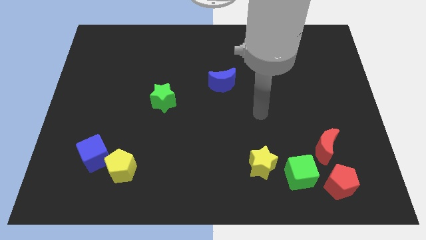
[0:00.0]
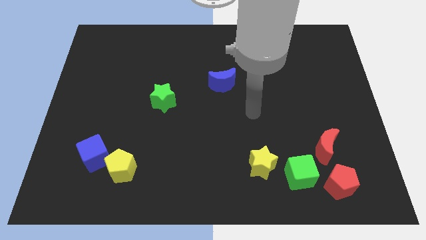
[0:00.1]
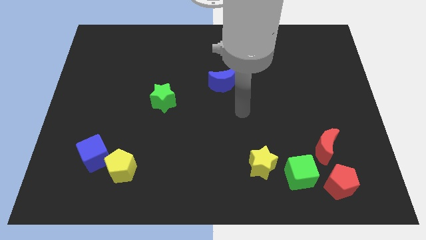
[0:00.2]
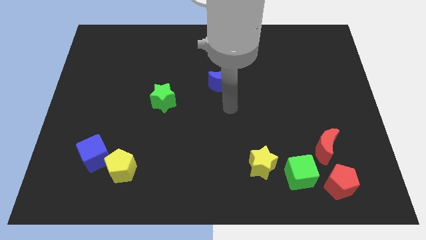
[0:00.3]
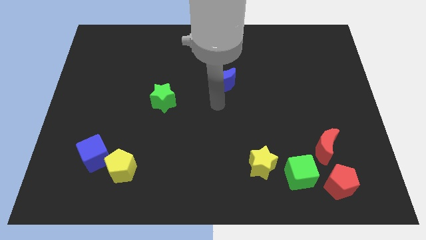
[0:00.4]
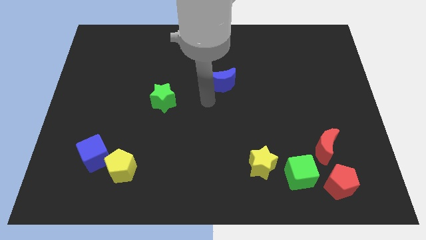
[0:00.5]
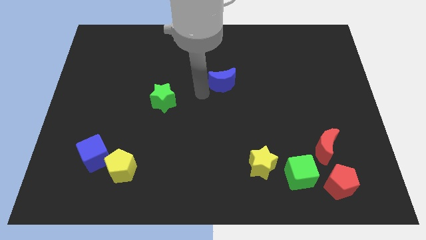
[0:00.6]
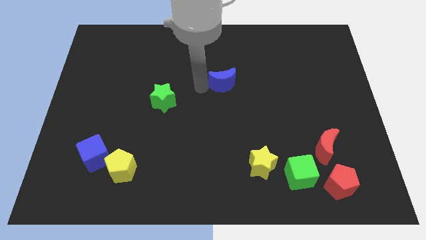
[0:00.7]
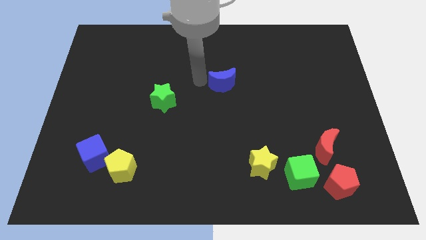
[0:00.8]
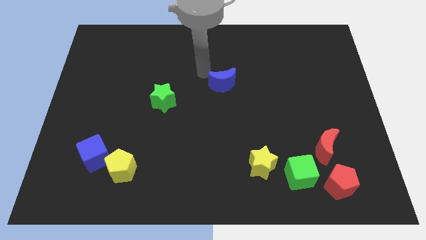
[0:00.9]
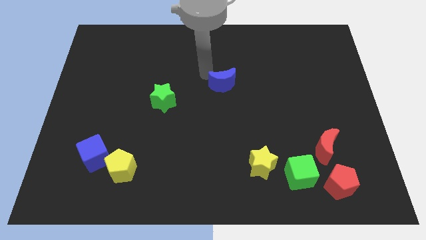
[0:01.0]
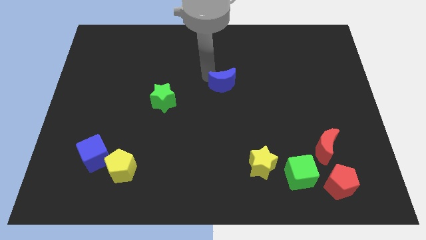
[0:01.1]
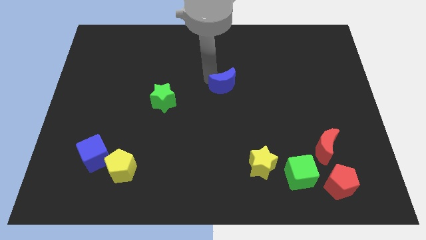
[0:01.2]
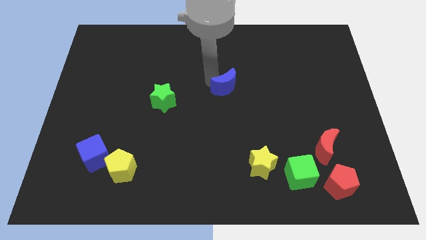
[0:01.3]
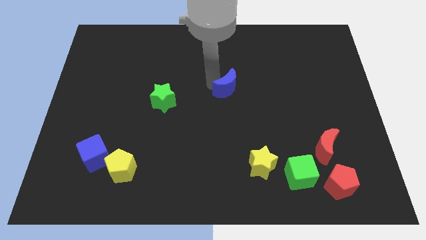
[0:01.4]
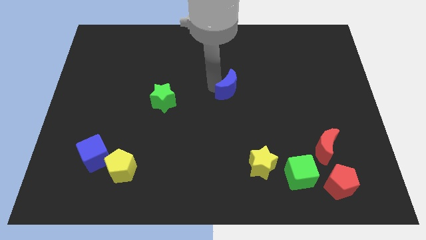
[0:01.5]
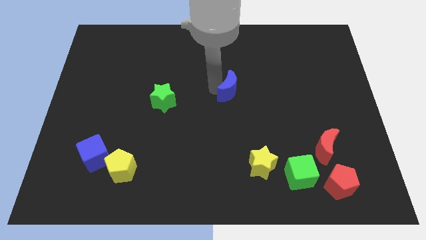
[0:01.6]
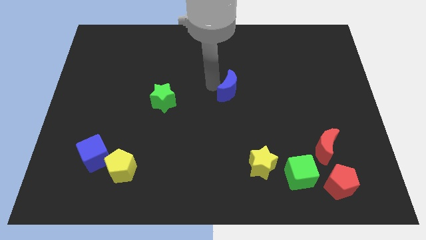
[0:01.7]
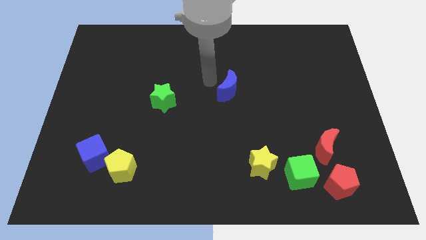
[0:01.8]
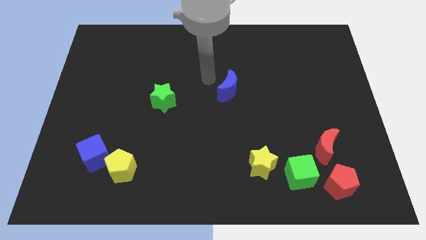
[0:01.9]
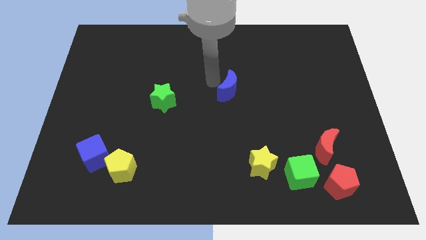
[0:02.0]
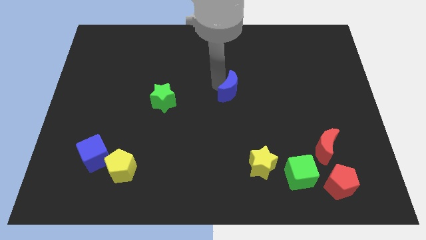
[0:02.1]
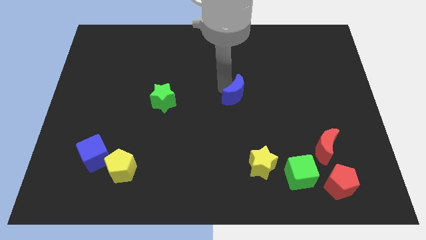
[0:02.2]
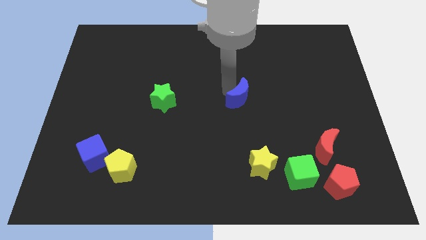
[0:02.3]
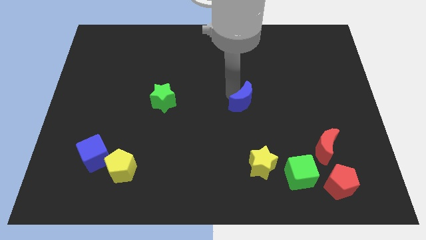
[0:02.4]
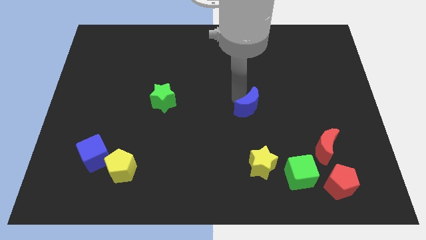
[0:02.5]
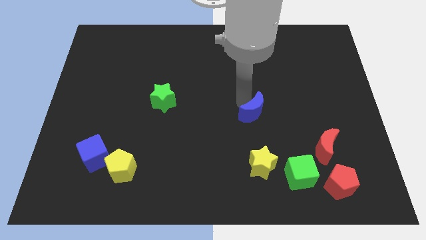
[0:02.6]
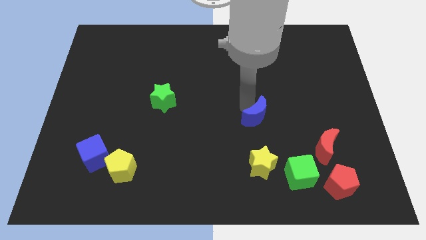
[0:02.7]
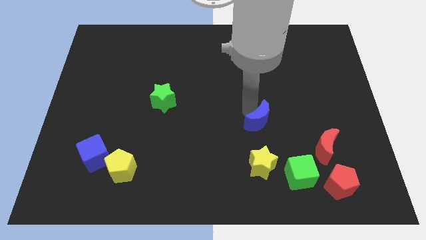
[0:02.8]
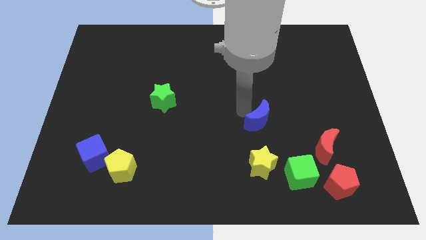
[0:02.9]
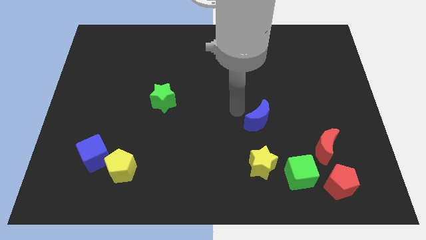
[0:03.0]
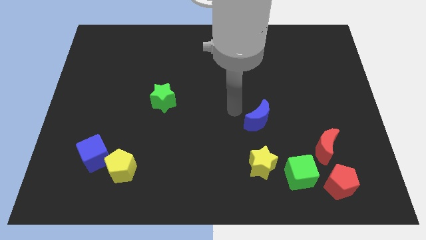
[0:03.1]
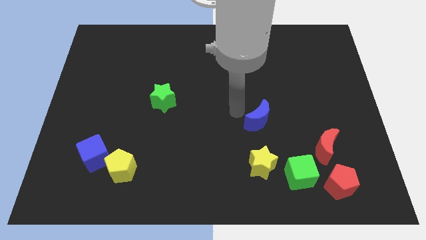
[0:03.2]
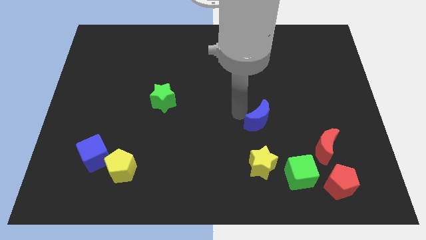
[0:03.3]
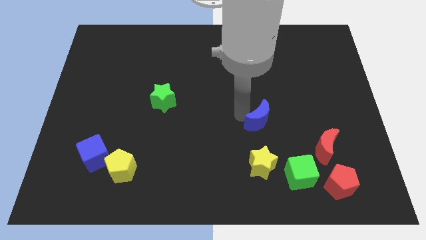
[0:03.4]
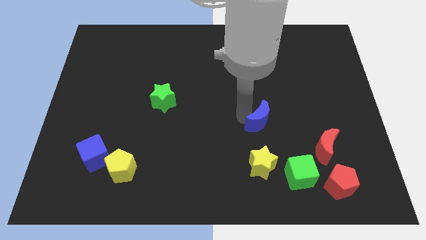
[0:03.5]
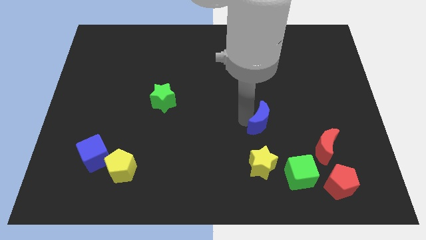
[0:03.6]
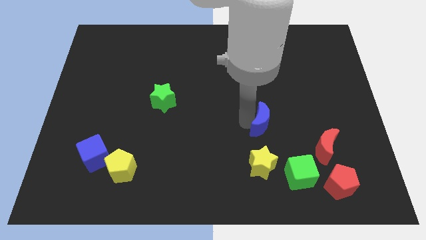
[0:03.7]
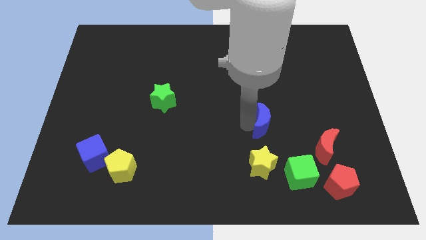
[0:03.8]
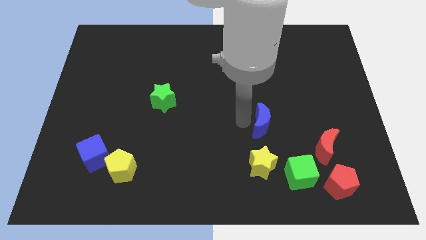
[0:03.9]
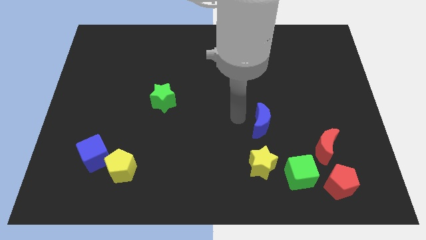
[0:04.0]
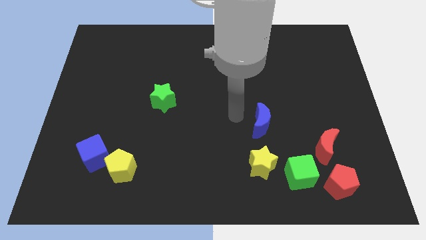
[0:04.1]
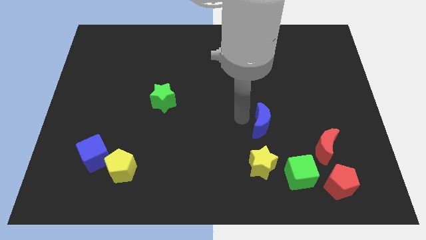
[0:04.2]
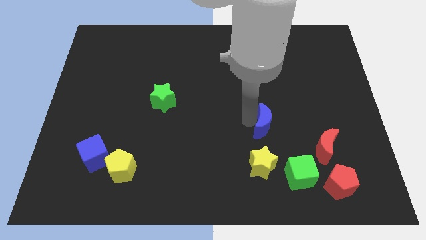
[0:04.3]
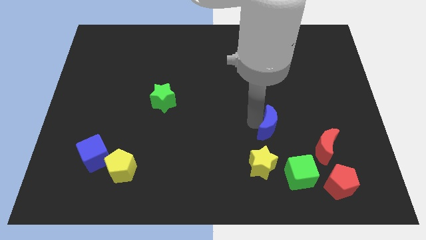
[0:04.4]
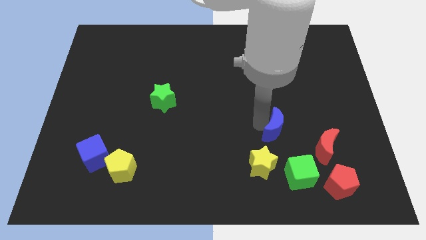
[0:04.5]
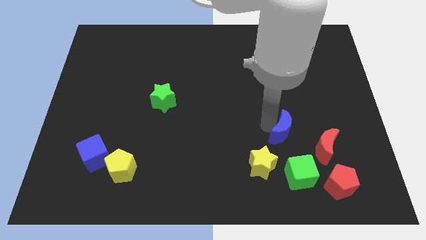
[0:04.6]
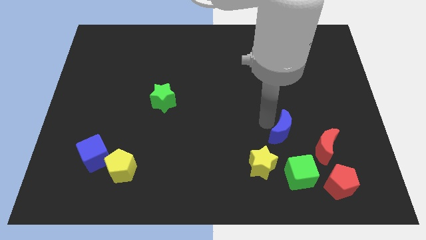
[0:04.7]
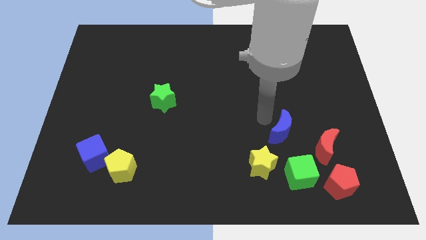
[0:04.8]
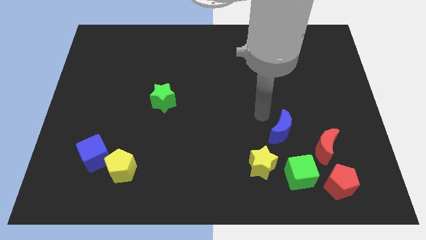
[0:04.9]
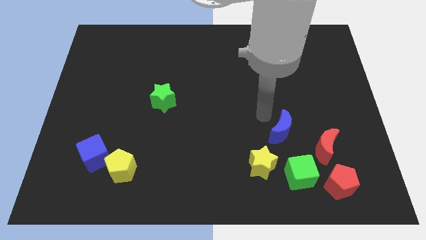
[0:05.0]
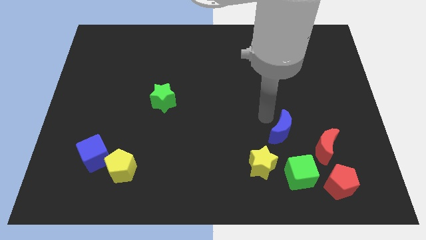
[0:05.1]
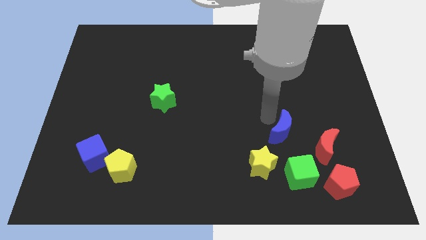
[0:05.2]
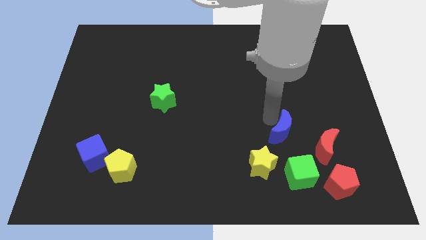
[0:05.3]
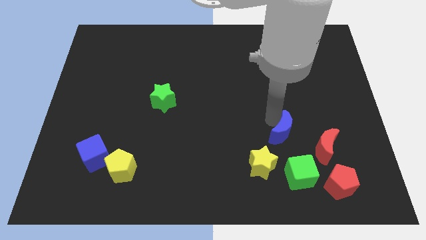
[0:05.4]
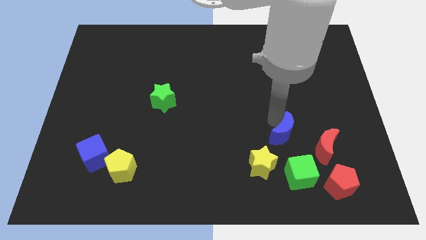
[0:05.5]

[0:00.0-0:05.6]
slide the blue moon down and to the right

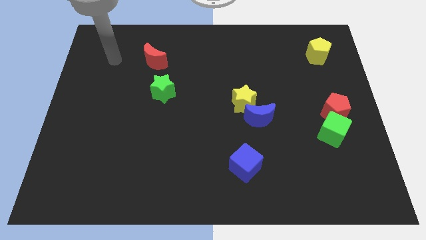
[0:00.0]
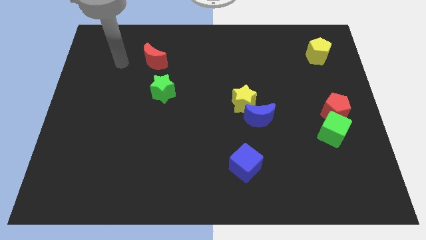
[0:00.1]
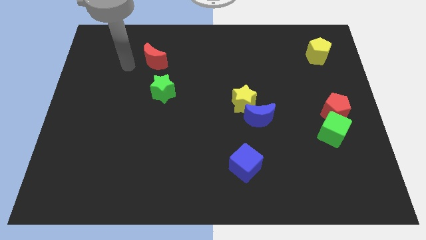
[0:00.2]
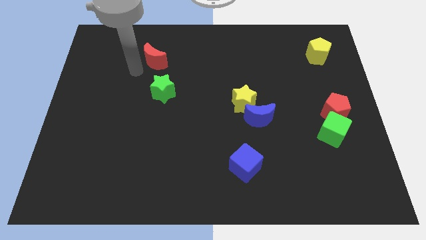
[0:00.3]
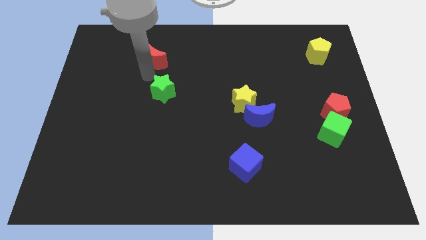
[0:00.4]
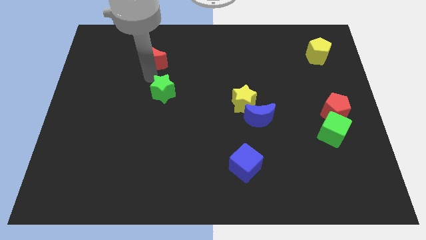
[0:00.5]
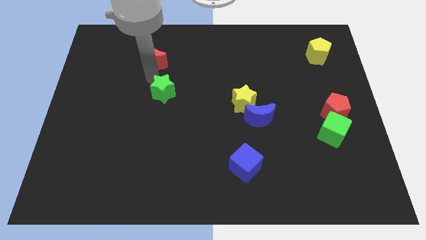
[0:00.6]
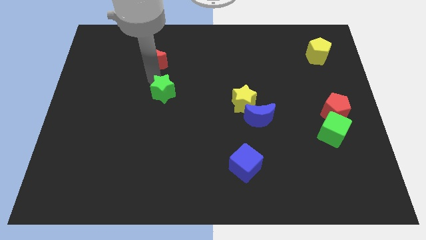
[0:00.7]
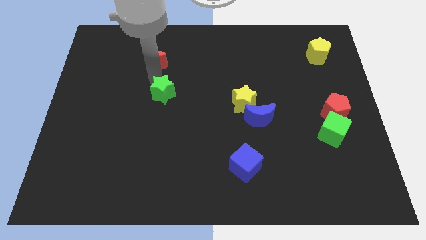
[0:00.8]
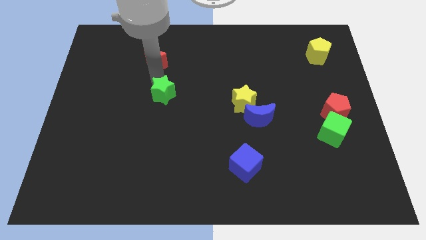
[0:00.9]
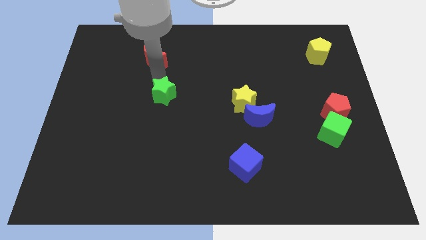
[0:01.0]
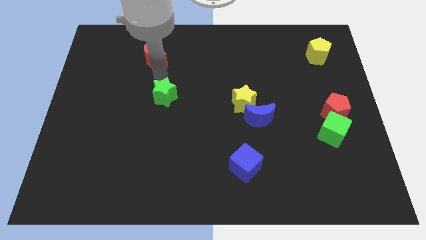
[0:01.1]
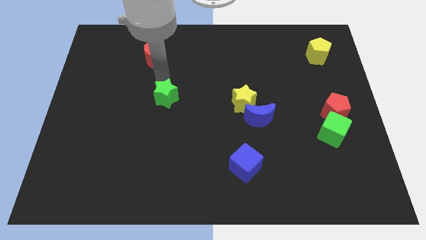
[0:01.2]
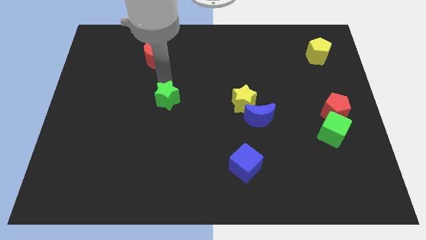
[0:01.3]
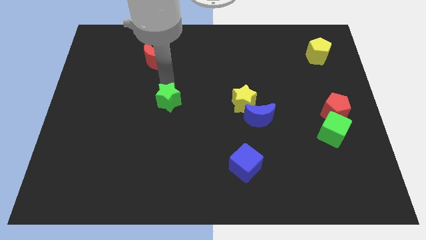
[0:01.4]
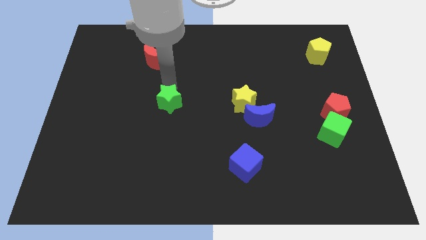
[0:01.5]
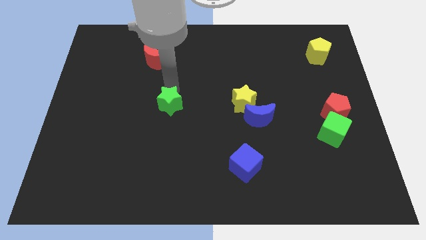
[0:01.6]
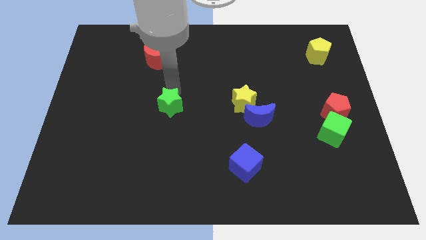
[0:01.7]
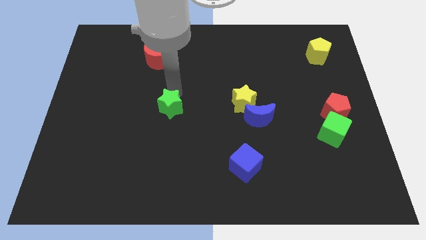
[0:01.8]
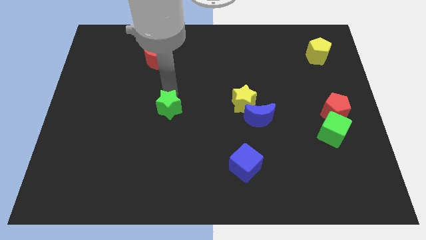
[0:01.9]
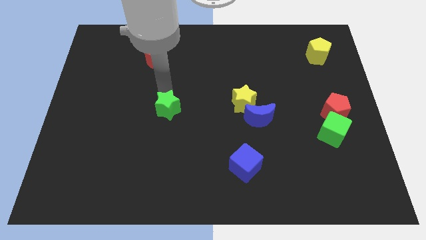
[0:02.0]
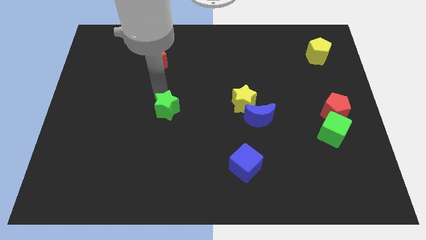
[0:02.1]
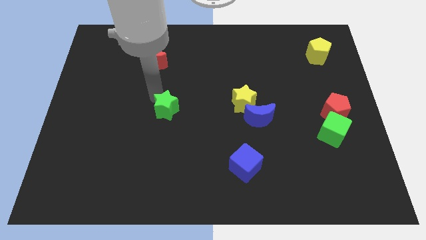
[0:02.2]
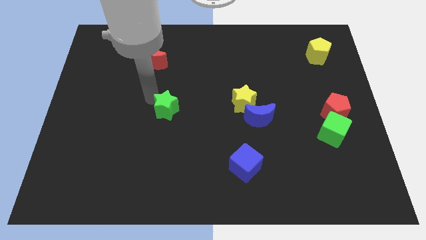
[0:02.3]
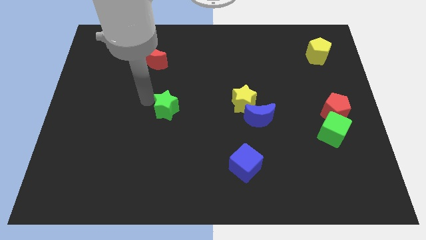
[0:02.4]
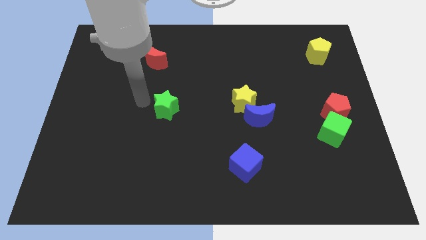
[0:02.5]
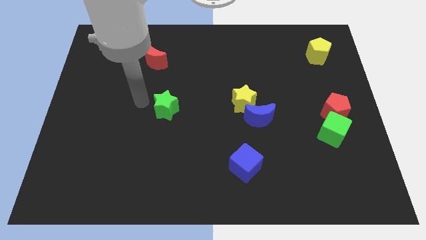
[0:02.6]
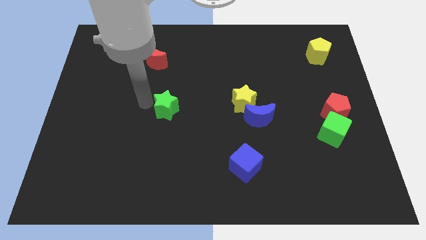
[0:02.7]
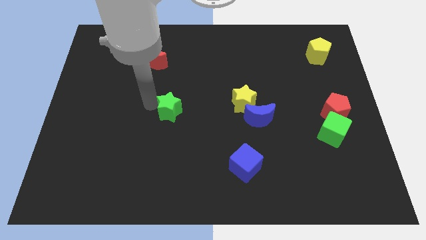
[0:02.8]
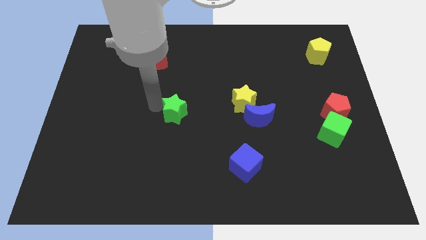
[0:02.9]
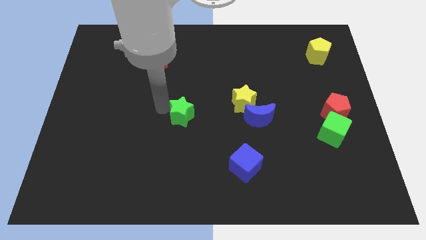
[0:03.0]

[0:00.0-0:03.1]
move the green star down and to the right a bit
